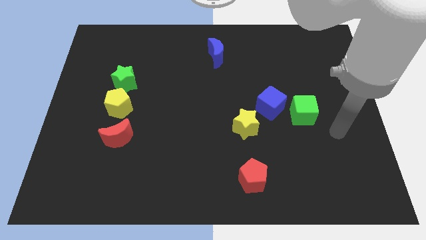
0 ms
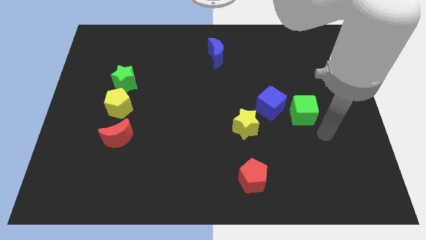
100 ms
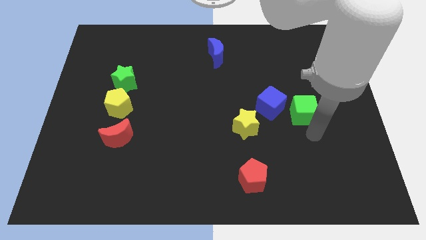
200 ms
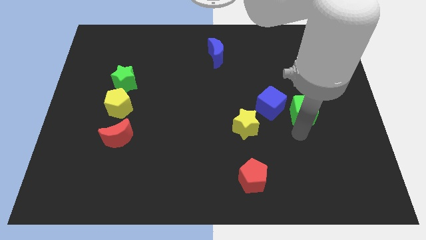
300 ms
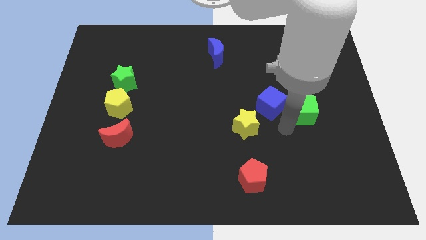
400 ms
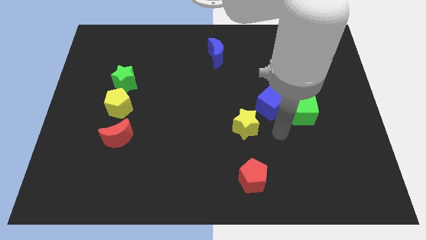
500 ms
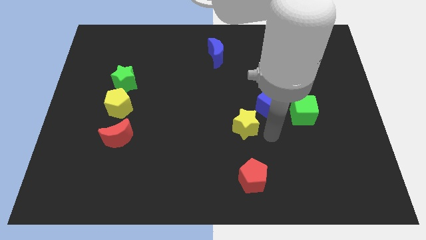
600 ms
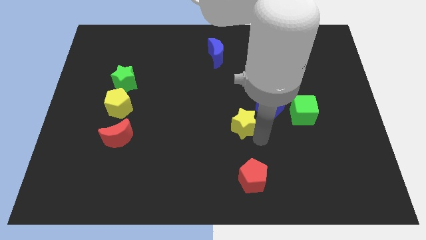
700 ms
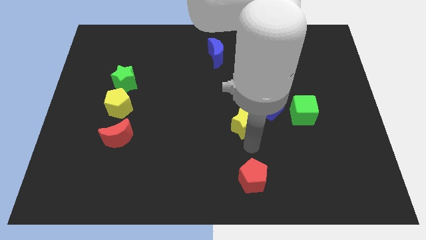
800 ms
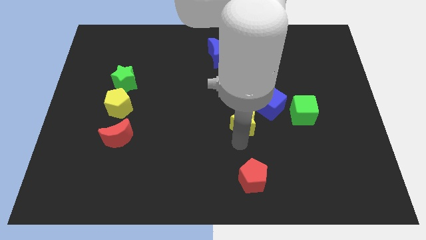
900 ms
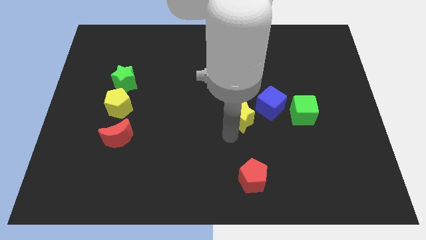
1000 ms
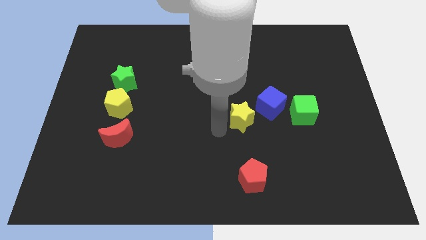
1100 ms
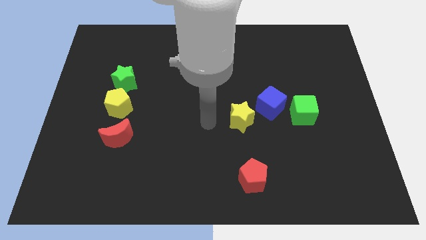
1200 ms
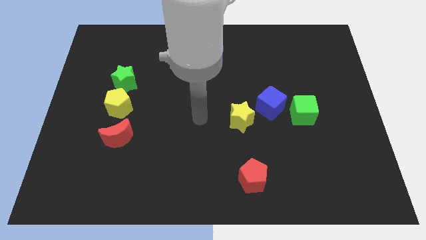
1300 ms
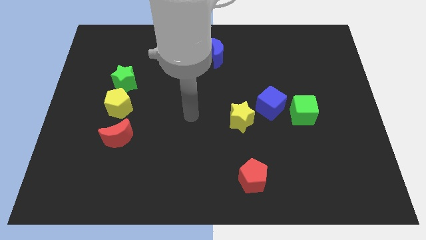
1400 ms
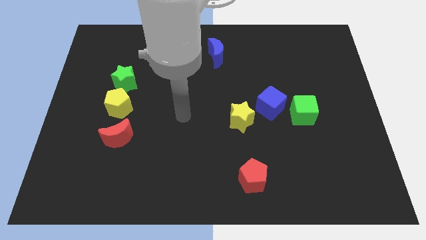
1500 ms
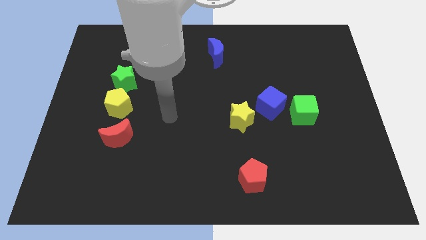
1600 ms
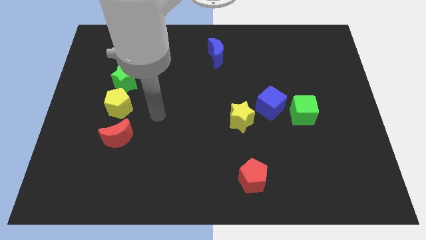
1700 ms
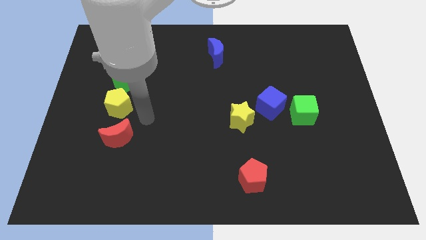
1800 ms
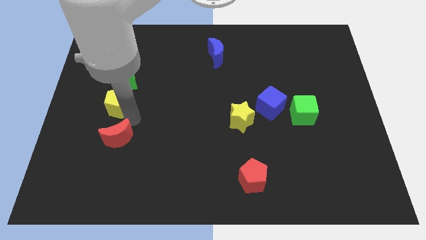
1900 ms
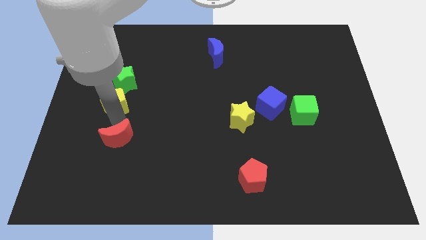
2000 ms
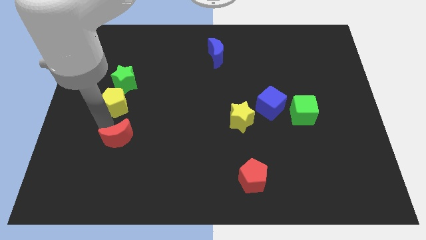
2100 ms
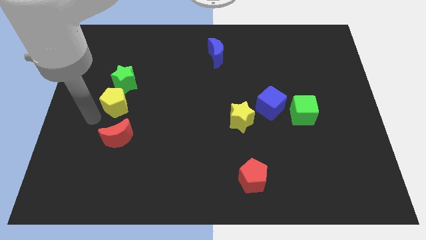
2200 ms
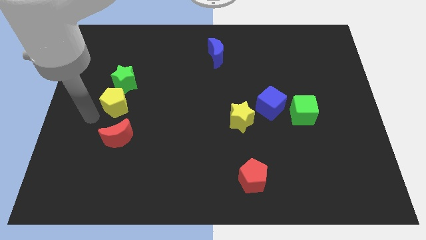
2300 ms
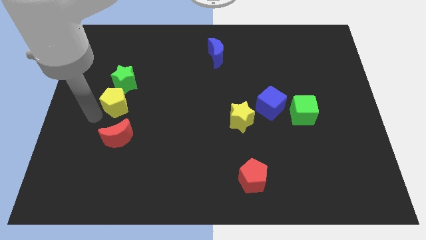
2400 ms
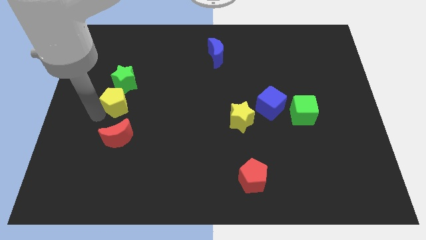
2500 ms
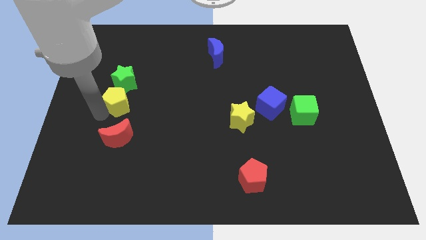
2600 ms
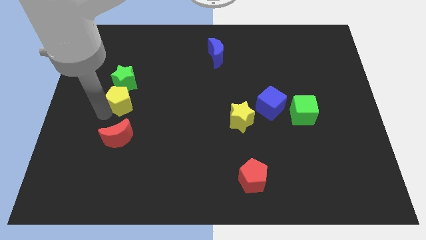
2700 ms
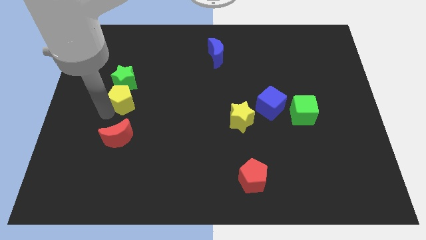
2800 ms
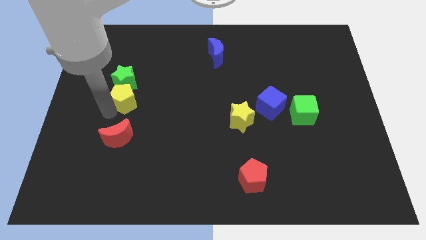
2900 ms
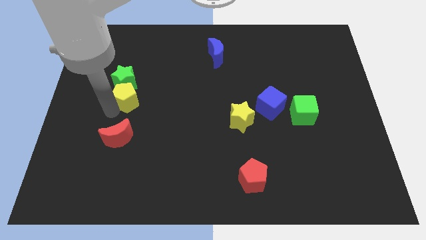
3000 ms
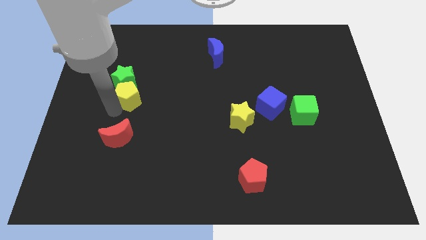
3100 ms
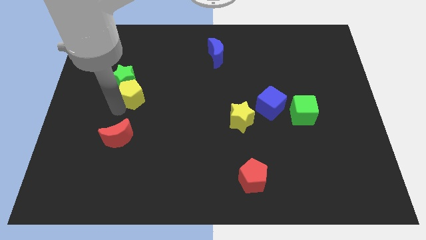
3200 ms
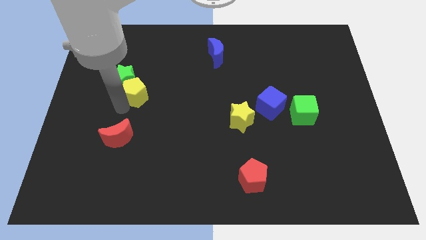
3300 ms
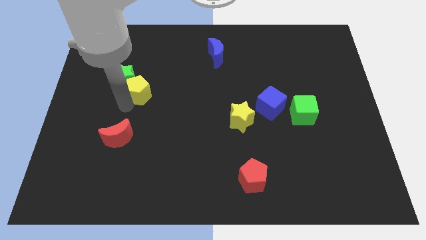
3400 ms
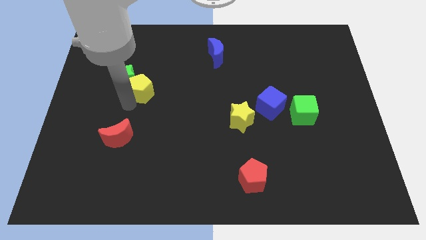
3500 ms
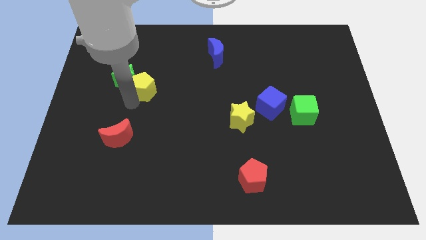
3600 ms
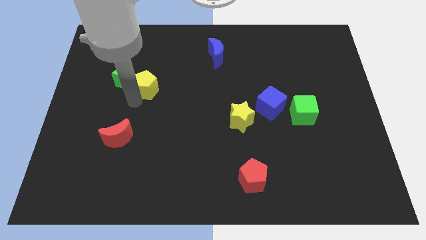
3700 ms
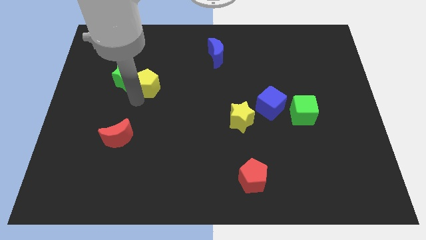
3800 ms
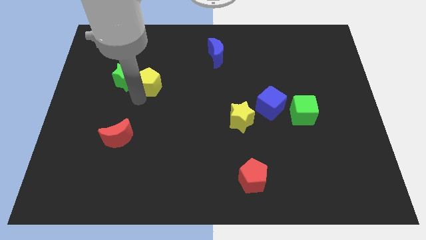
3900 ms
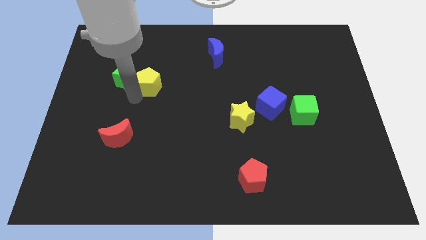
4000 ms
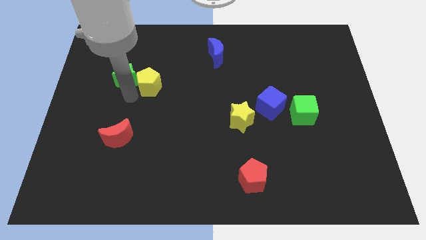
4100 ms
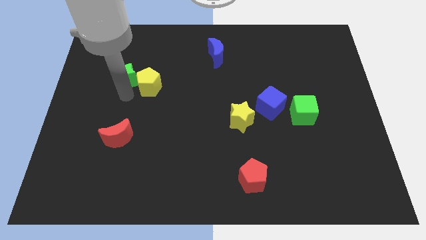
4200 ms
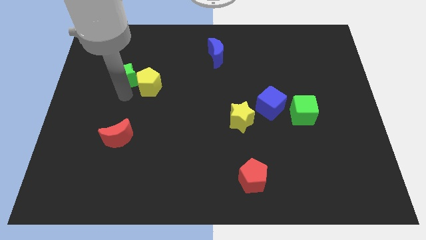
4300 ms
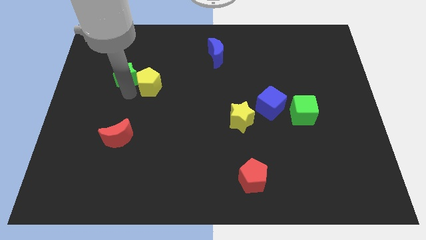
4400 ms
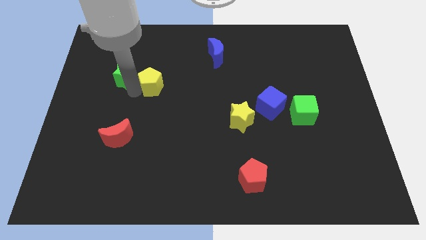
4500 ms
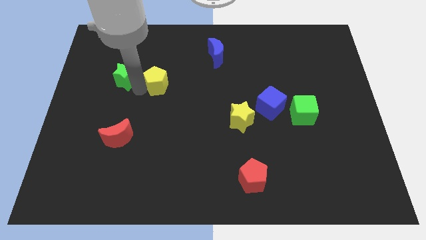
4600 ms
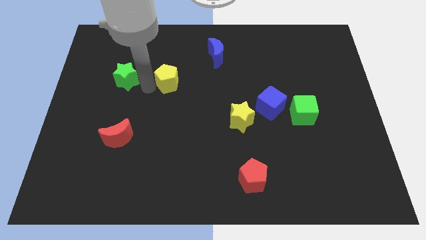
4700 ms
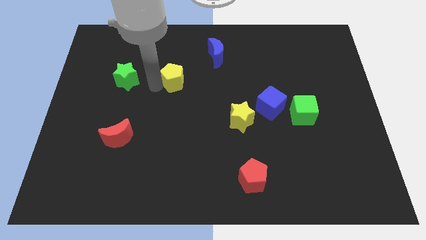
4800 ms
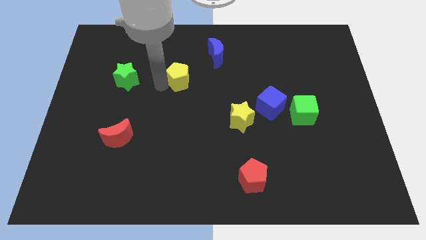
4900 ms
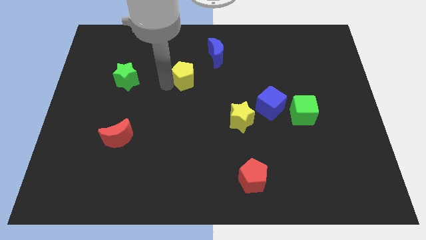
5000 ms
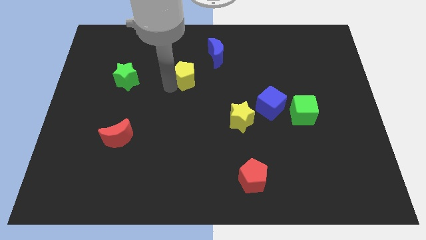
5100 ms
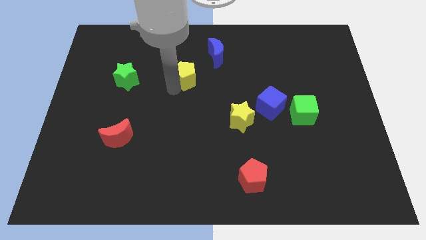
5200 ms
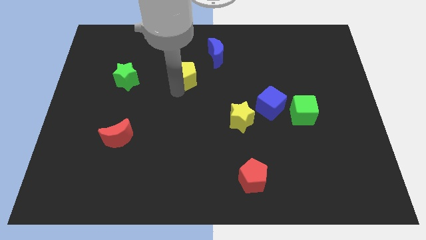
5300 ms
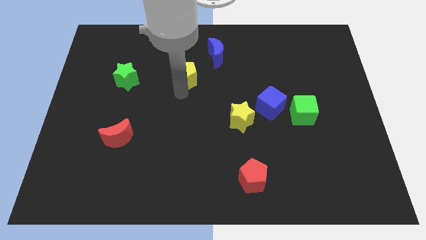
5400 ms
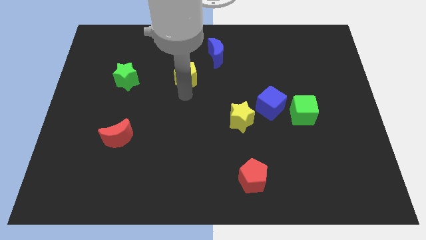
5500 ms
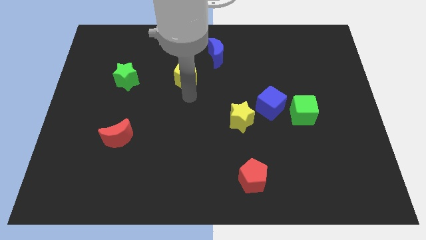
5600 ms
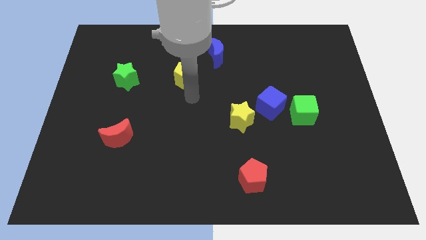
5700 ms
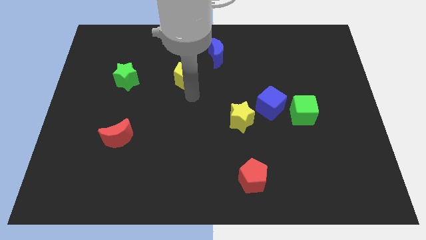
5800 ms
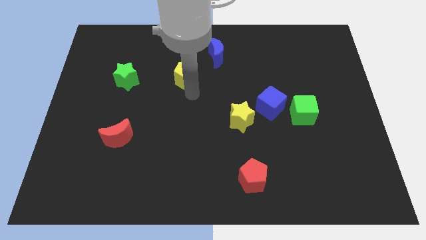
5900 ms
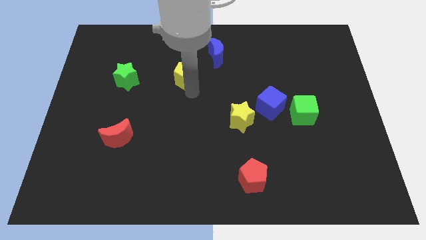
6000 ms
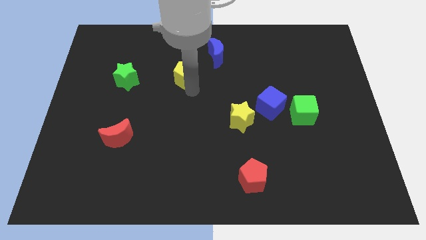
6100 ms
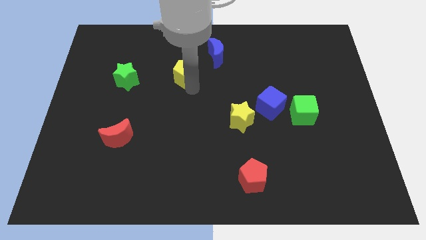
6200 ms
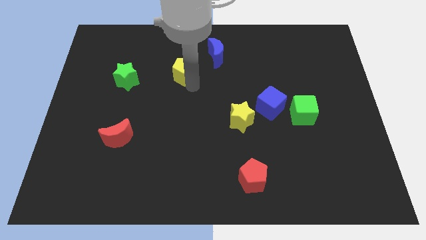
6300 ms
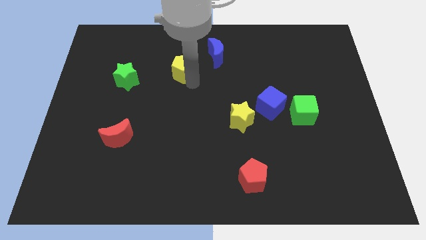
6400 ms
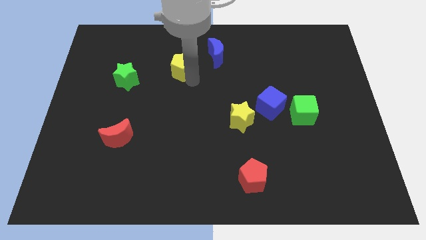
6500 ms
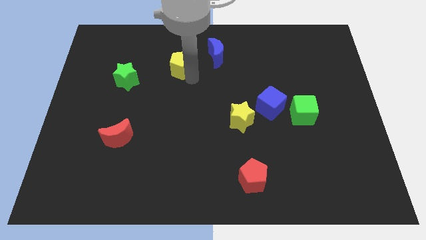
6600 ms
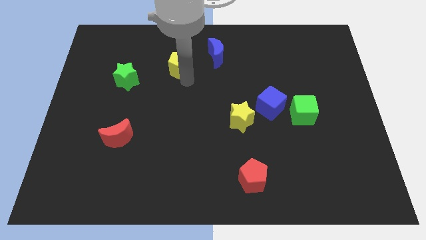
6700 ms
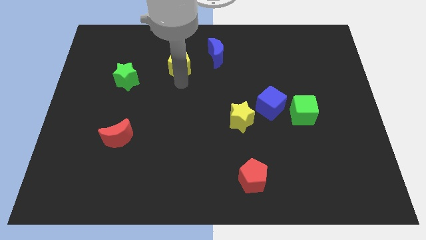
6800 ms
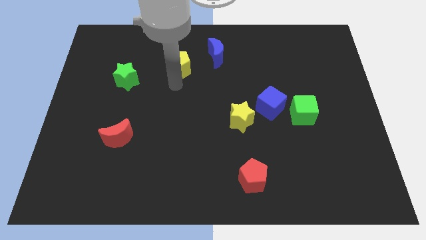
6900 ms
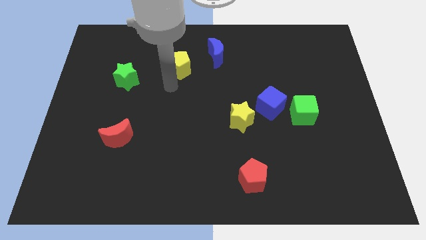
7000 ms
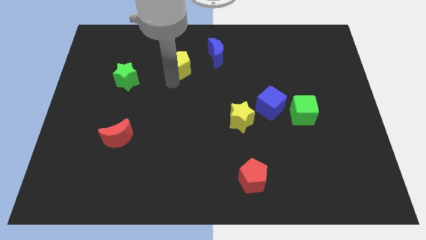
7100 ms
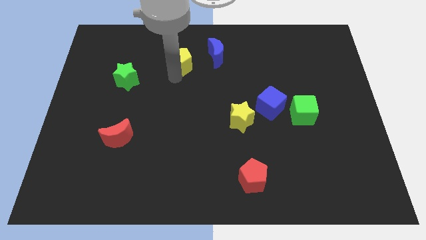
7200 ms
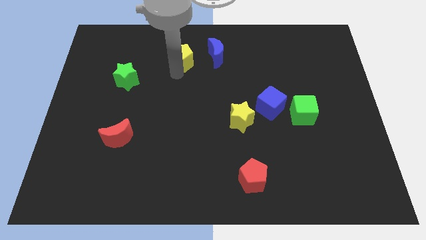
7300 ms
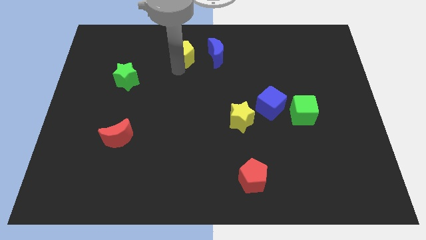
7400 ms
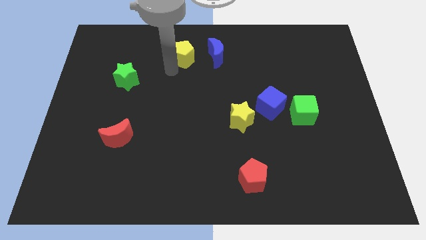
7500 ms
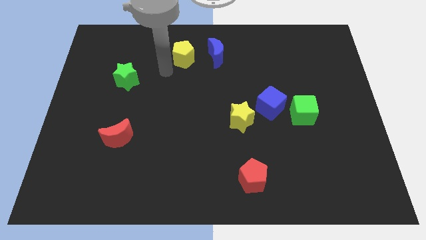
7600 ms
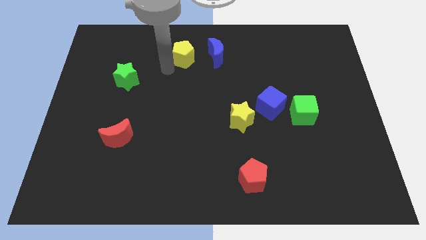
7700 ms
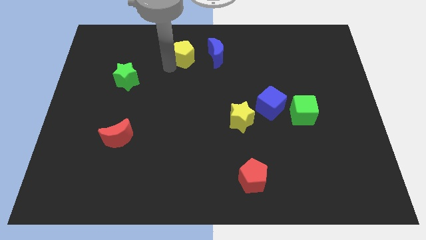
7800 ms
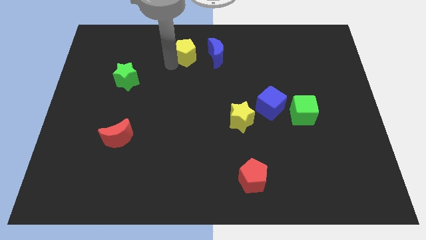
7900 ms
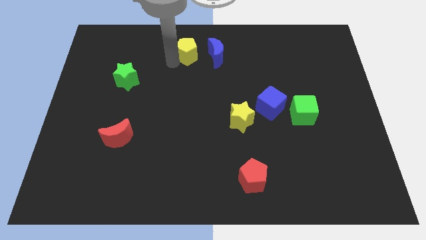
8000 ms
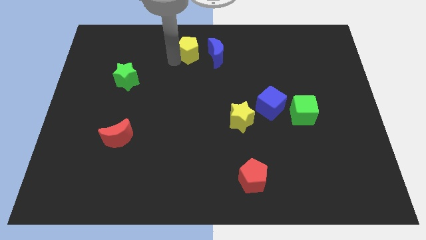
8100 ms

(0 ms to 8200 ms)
slide the yellow pentagon to the top
